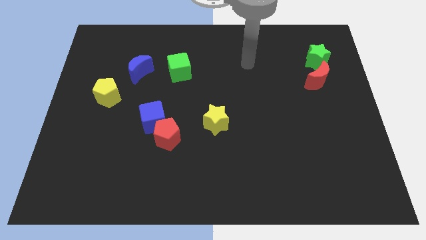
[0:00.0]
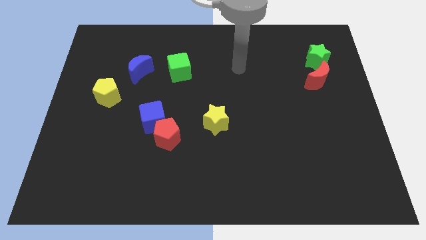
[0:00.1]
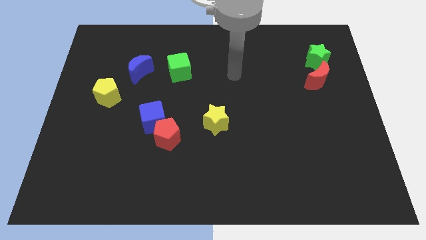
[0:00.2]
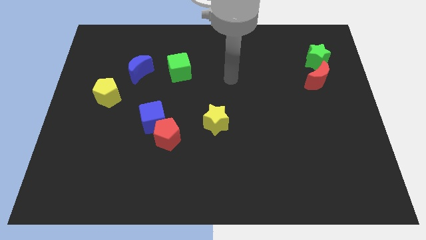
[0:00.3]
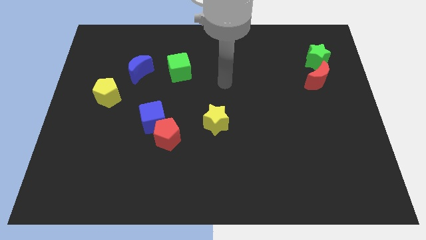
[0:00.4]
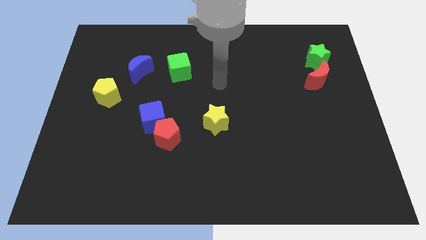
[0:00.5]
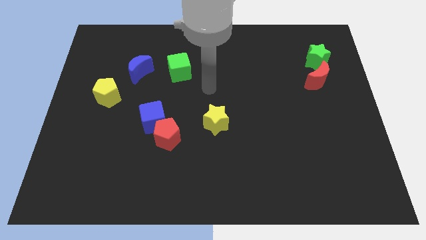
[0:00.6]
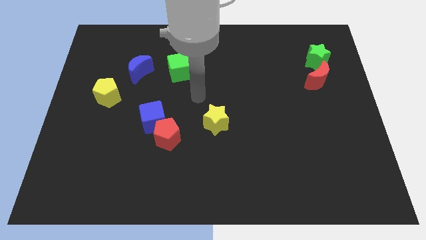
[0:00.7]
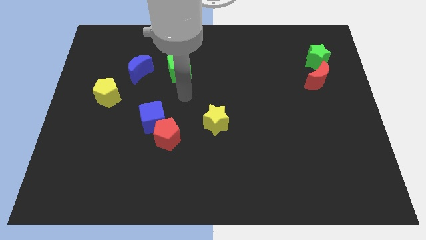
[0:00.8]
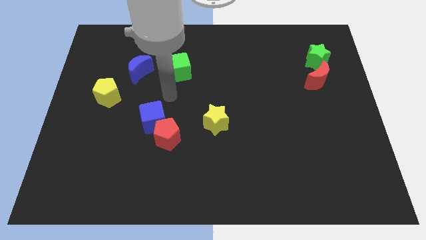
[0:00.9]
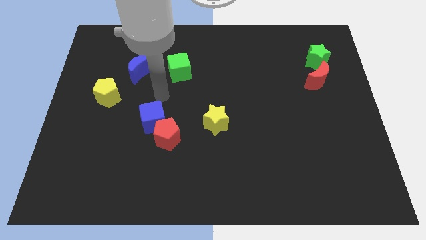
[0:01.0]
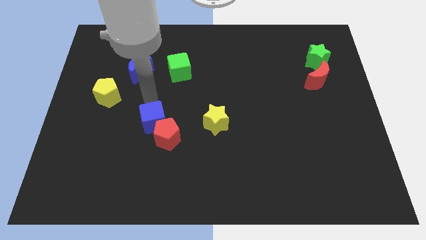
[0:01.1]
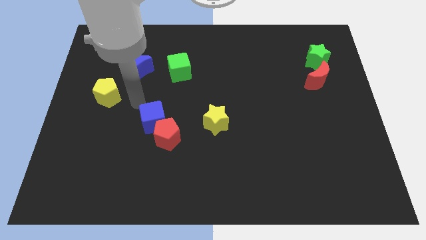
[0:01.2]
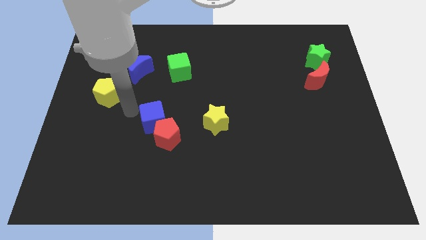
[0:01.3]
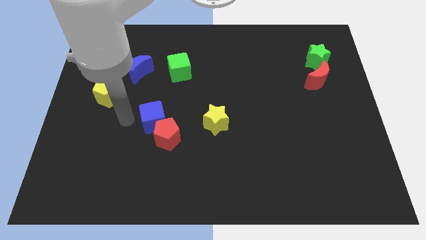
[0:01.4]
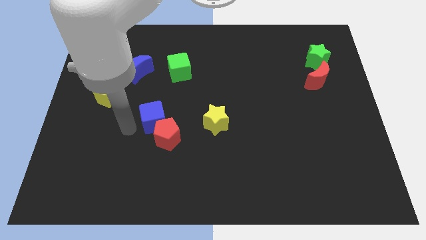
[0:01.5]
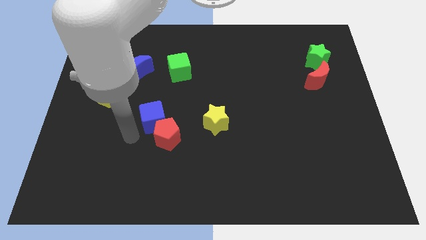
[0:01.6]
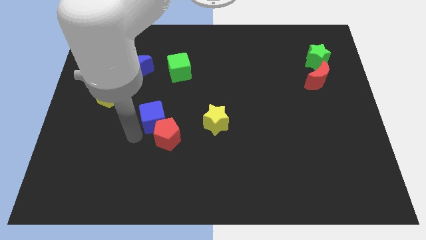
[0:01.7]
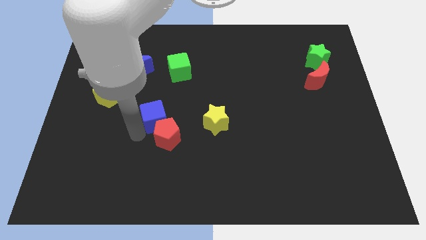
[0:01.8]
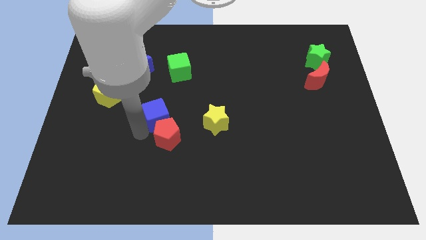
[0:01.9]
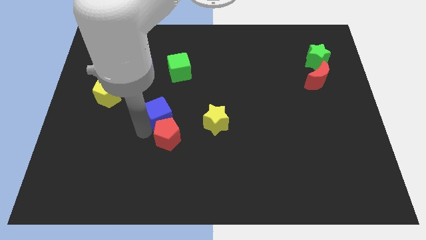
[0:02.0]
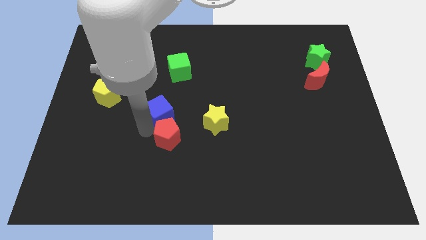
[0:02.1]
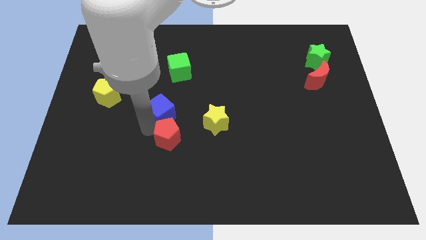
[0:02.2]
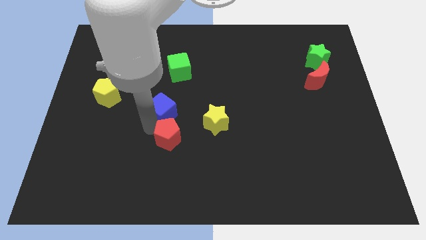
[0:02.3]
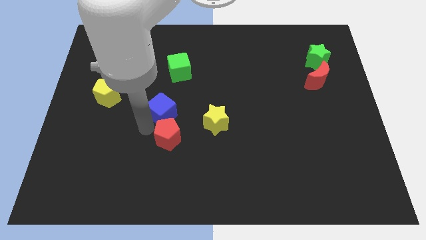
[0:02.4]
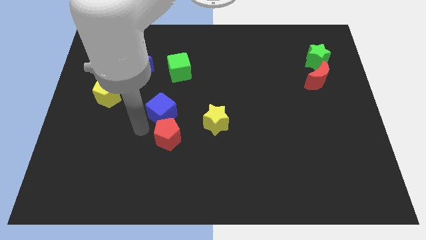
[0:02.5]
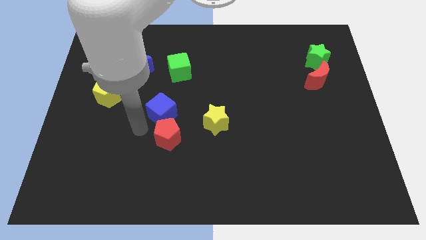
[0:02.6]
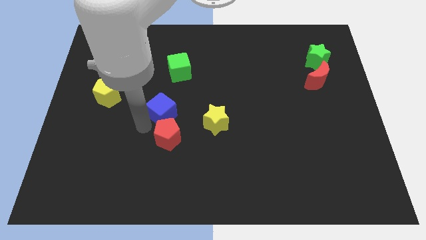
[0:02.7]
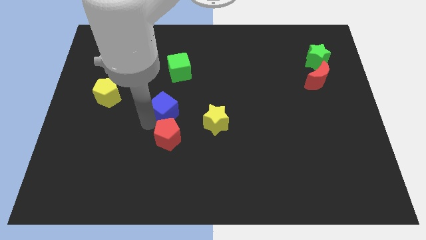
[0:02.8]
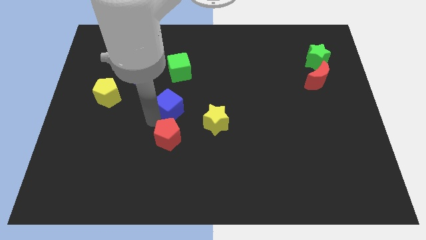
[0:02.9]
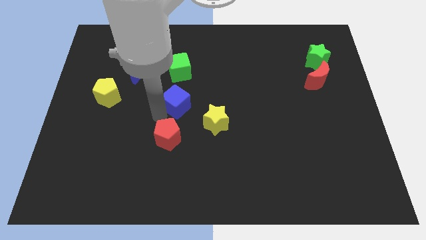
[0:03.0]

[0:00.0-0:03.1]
move the blue cube a bit up and right

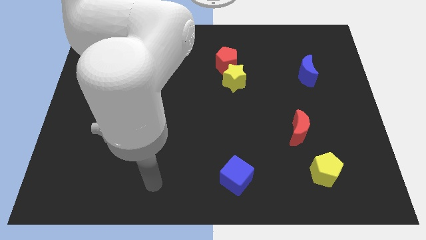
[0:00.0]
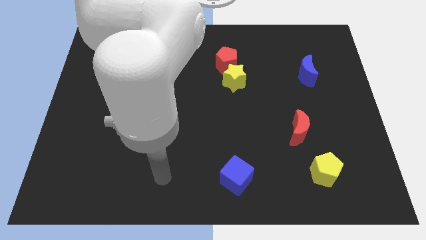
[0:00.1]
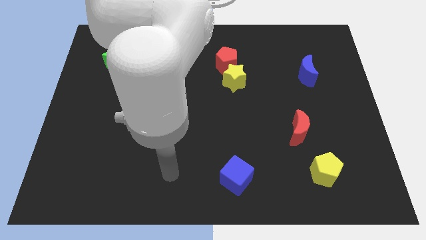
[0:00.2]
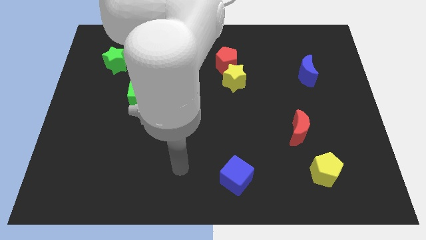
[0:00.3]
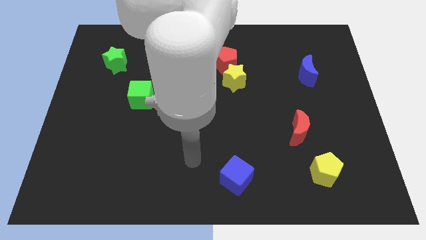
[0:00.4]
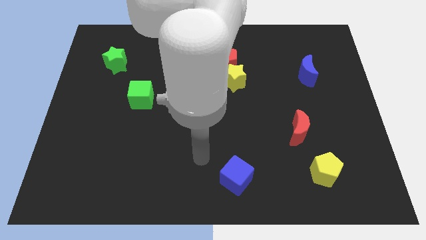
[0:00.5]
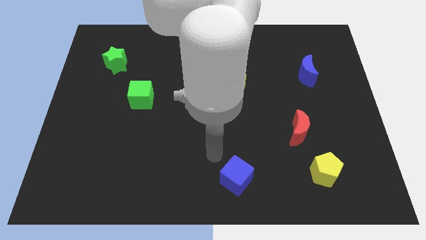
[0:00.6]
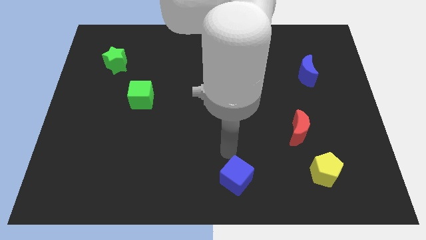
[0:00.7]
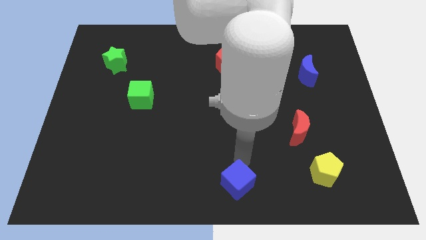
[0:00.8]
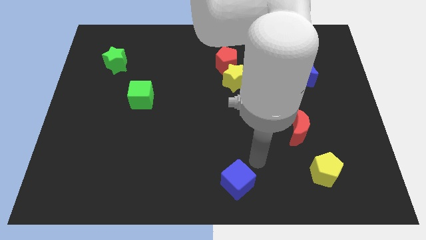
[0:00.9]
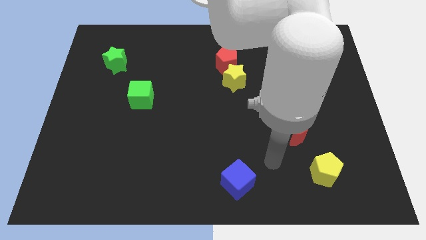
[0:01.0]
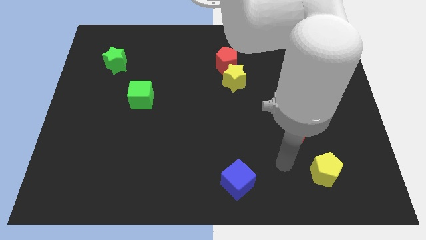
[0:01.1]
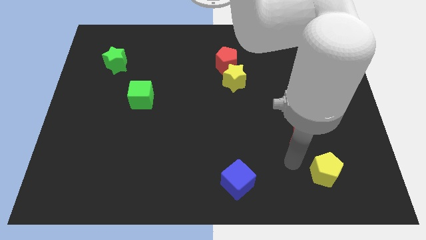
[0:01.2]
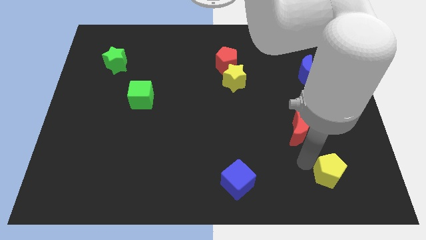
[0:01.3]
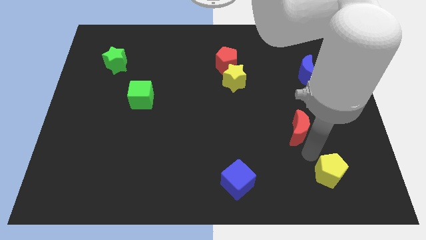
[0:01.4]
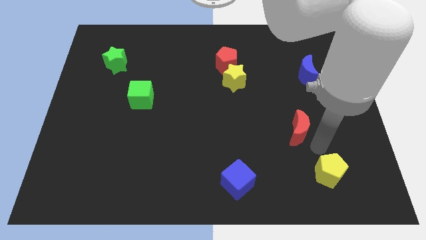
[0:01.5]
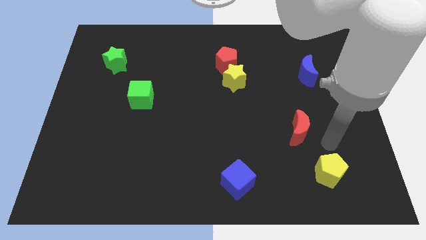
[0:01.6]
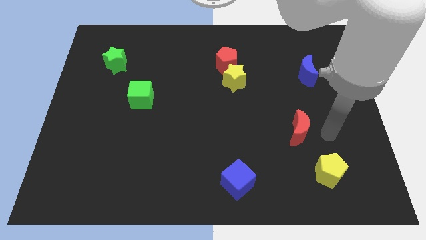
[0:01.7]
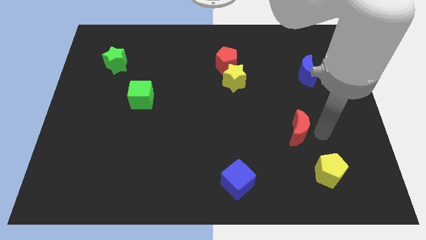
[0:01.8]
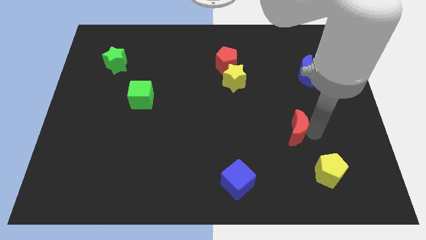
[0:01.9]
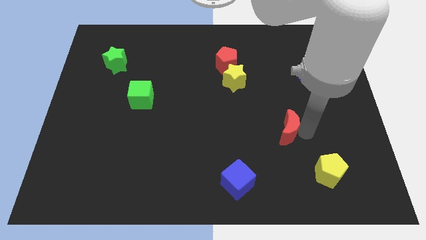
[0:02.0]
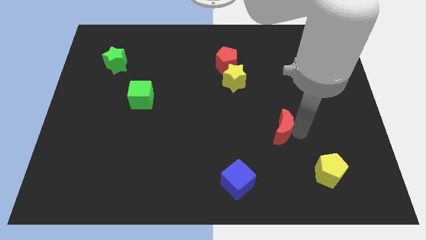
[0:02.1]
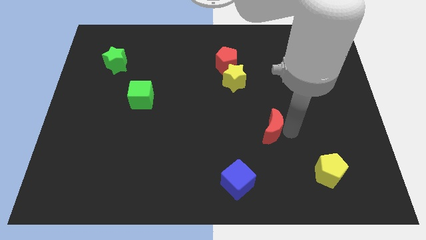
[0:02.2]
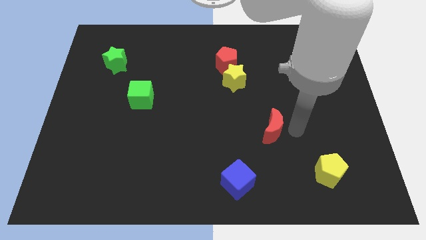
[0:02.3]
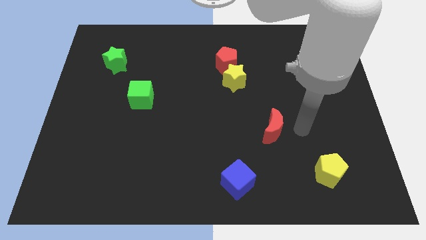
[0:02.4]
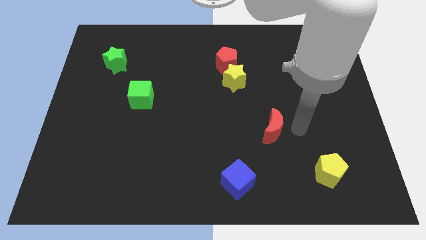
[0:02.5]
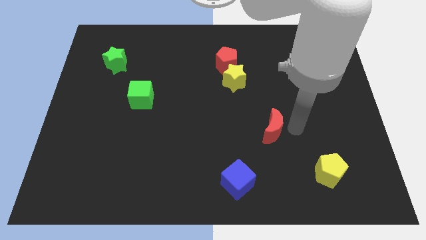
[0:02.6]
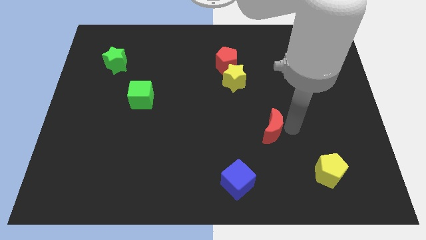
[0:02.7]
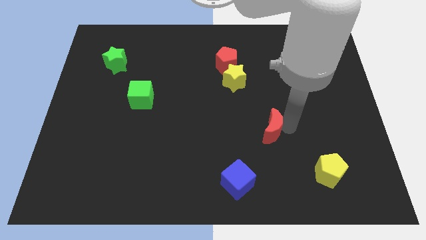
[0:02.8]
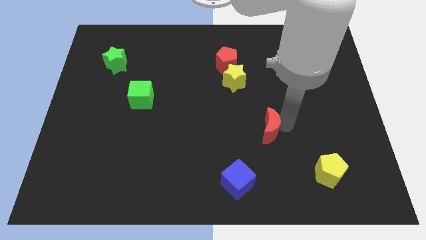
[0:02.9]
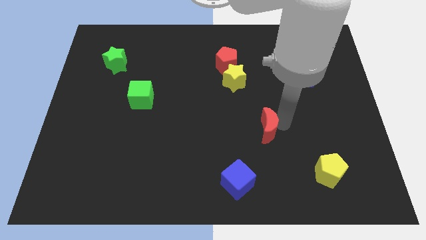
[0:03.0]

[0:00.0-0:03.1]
slightly slide the red moon left

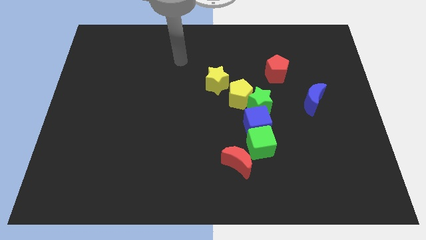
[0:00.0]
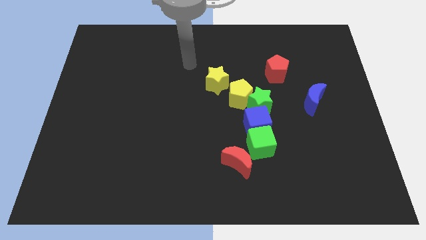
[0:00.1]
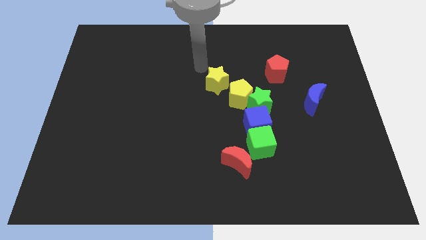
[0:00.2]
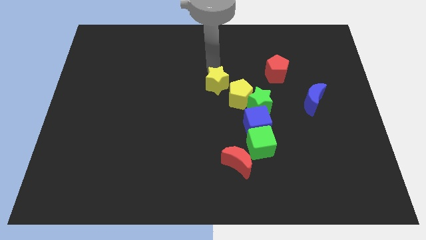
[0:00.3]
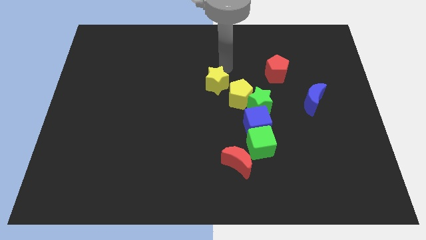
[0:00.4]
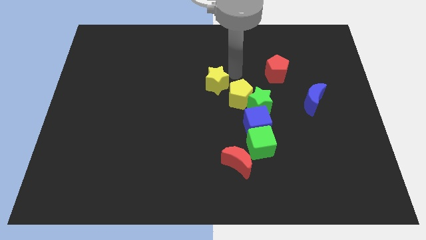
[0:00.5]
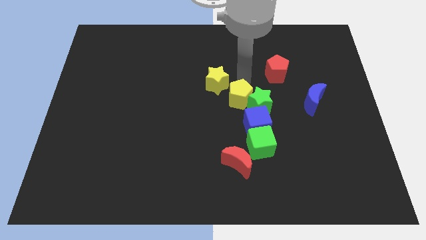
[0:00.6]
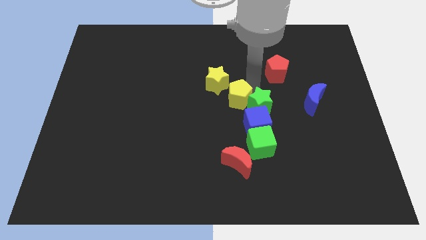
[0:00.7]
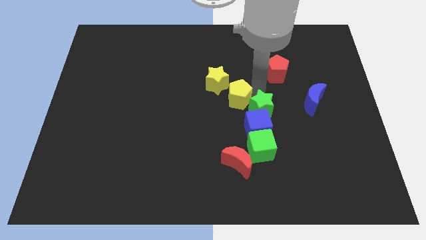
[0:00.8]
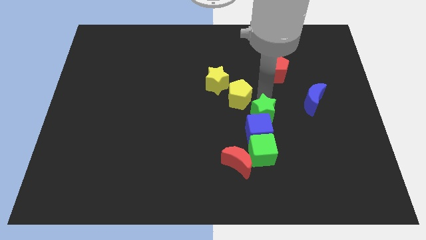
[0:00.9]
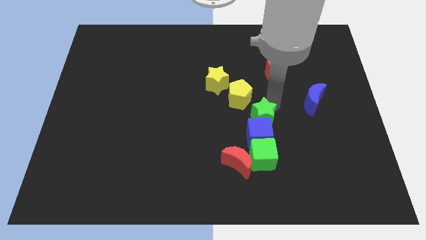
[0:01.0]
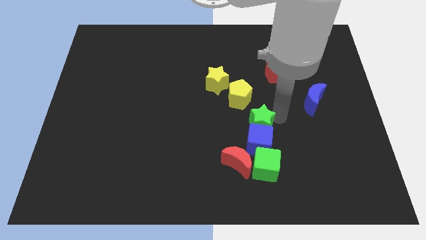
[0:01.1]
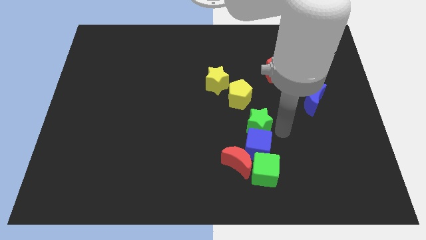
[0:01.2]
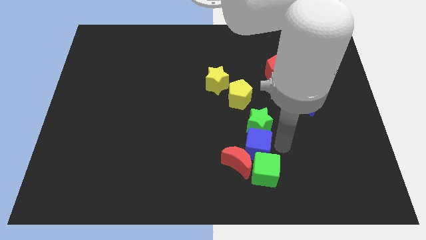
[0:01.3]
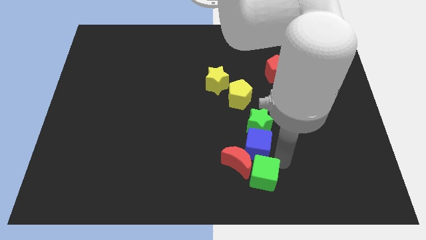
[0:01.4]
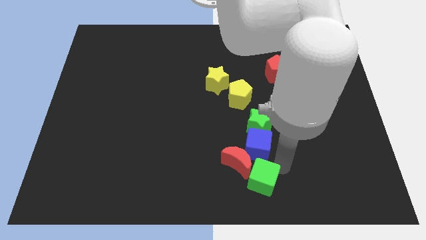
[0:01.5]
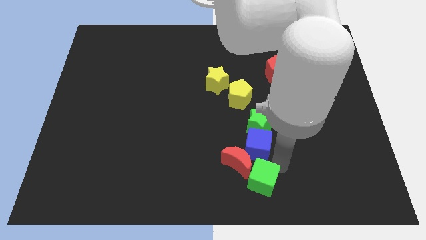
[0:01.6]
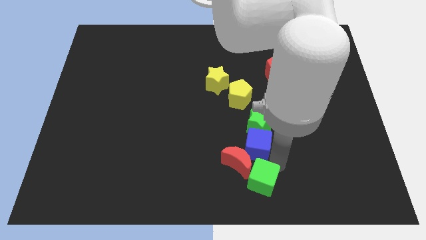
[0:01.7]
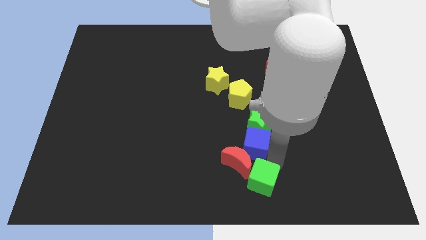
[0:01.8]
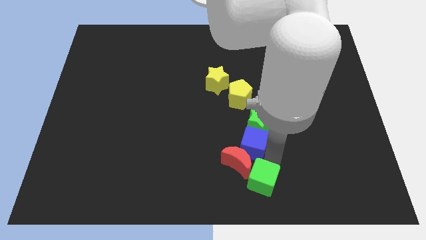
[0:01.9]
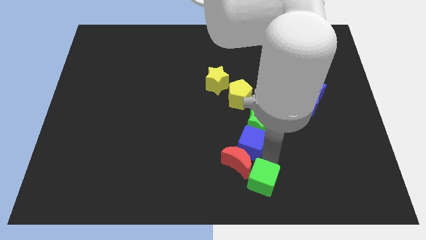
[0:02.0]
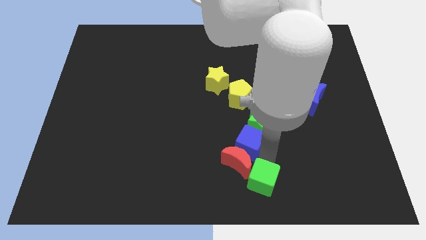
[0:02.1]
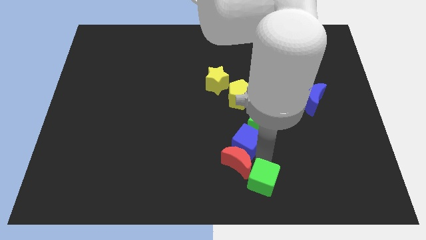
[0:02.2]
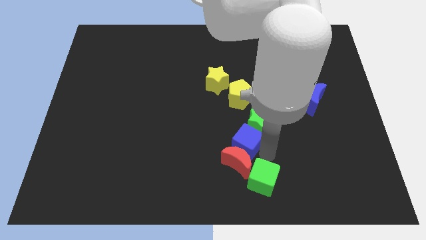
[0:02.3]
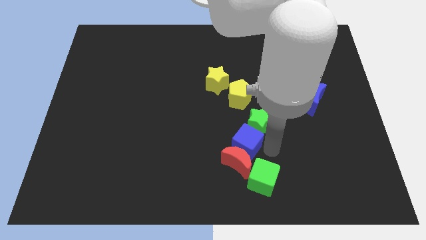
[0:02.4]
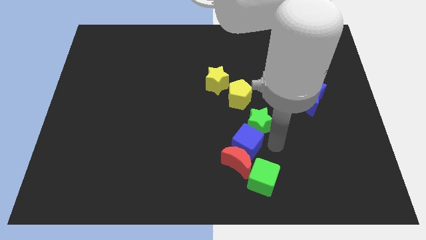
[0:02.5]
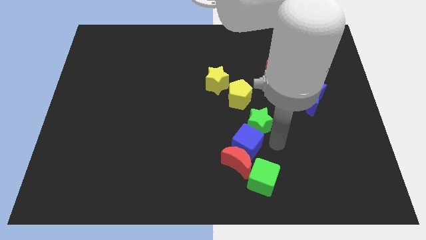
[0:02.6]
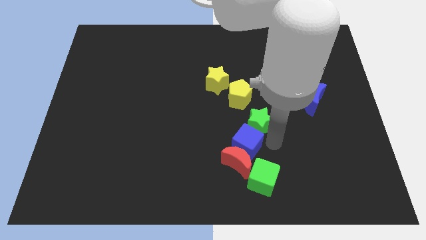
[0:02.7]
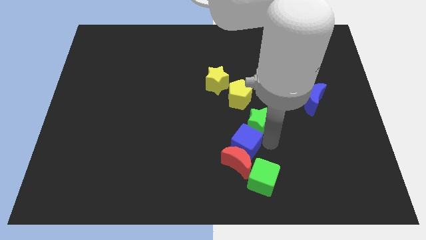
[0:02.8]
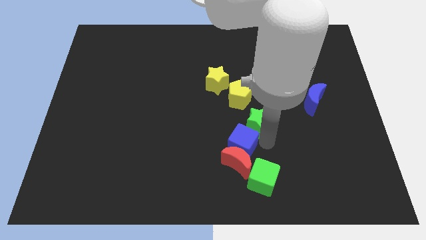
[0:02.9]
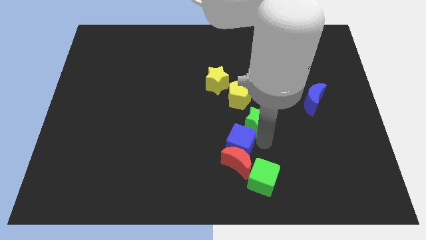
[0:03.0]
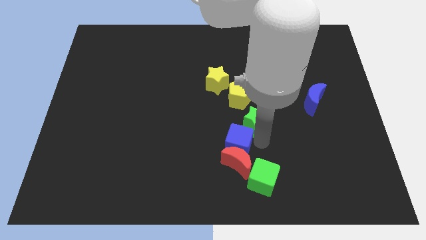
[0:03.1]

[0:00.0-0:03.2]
push the blue cube a bit downwards and left
